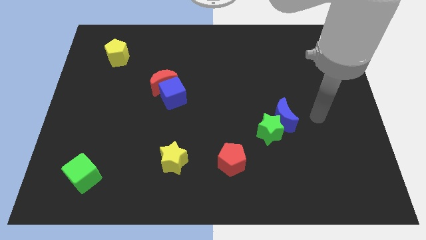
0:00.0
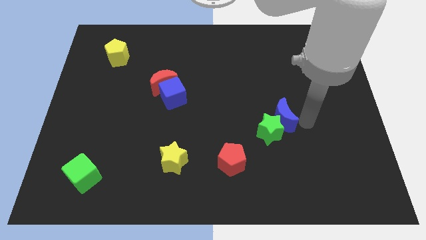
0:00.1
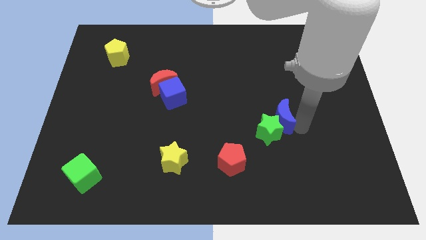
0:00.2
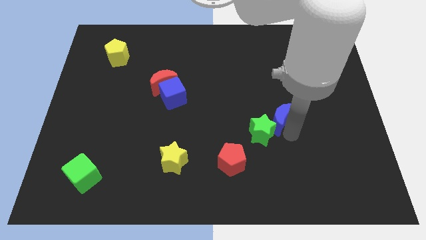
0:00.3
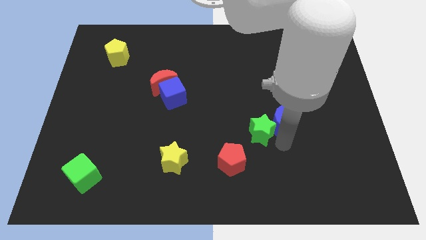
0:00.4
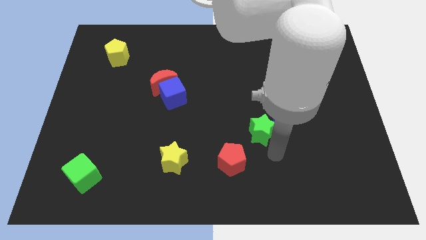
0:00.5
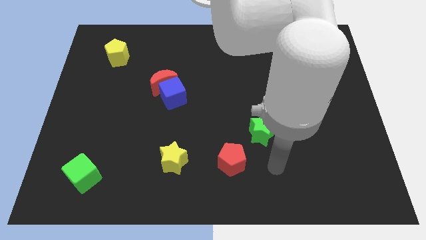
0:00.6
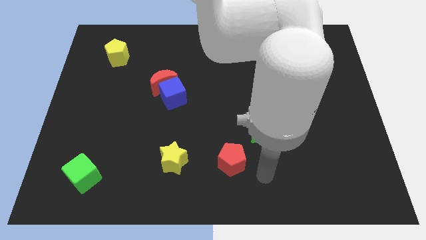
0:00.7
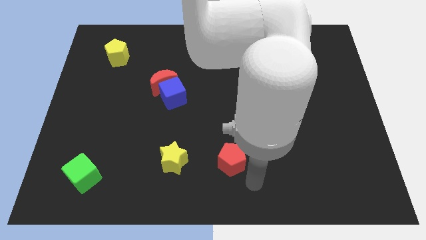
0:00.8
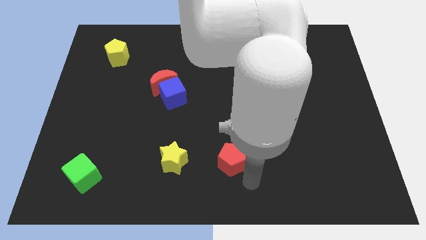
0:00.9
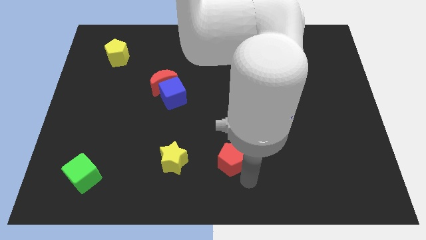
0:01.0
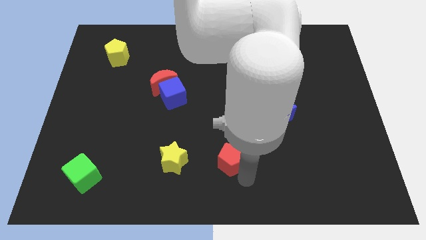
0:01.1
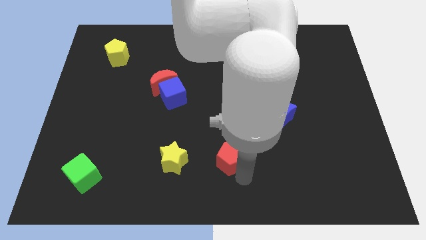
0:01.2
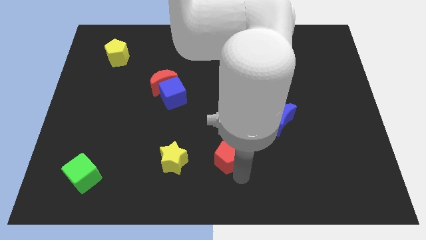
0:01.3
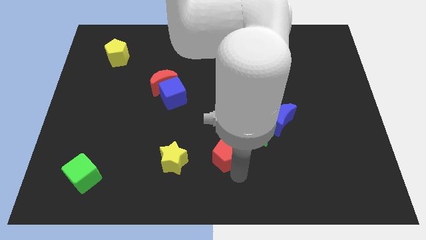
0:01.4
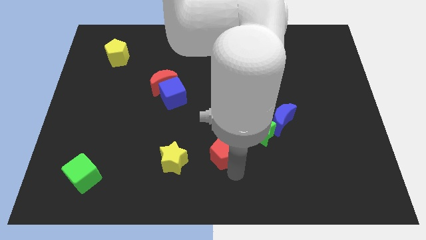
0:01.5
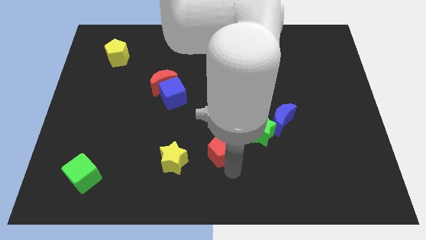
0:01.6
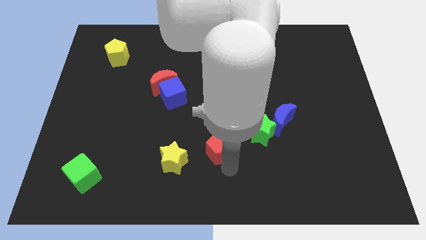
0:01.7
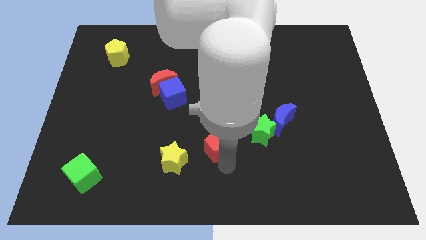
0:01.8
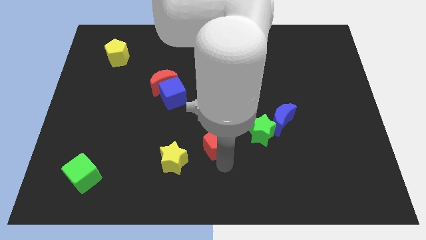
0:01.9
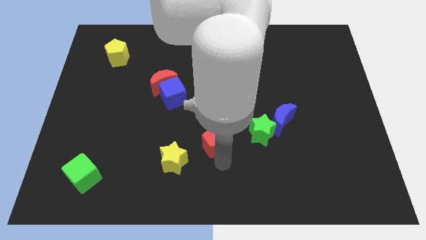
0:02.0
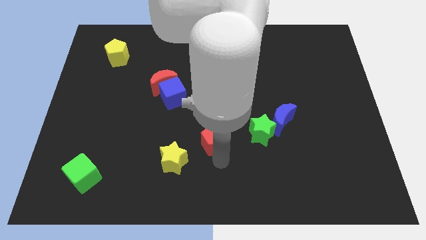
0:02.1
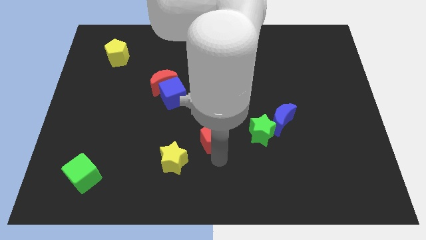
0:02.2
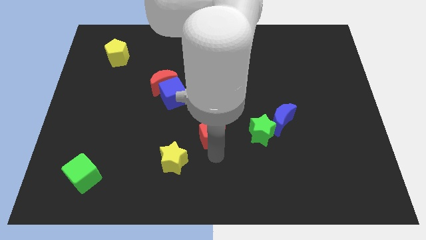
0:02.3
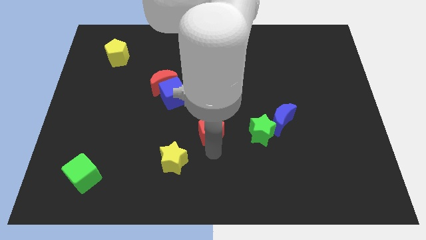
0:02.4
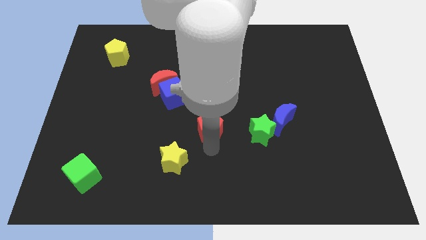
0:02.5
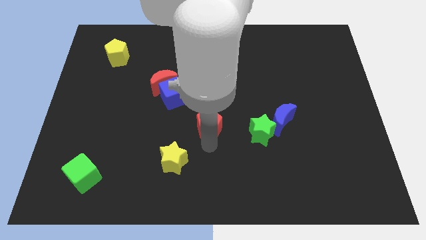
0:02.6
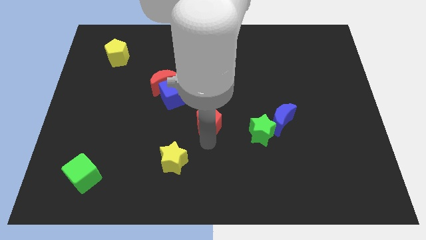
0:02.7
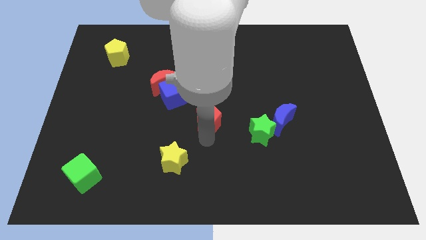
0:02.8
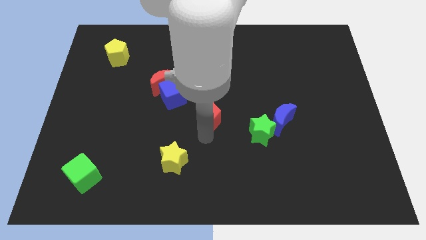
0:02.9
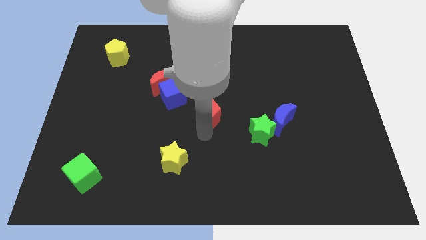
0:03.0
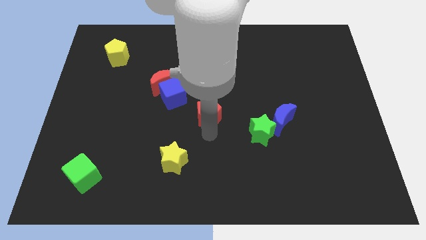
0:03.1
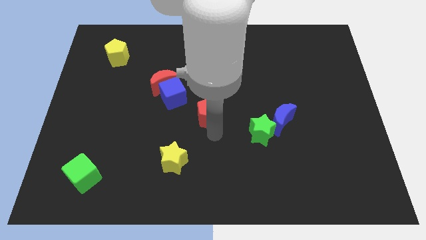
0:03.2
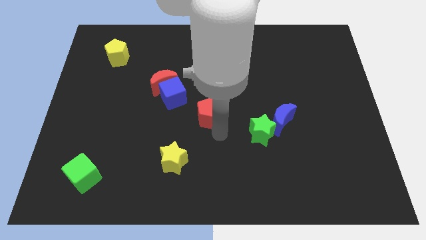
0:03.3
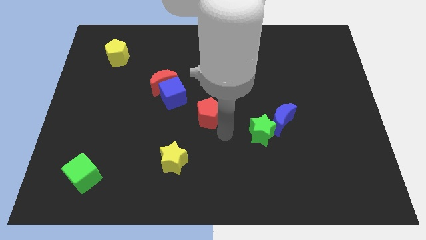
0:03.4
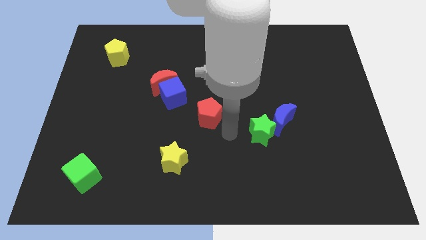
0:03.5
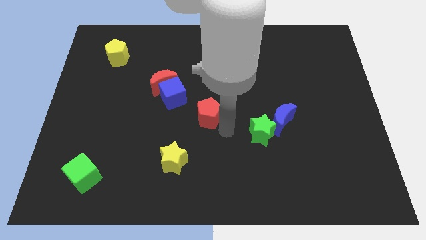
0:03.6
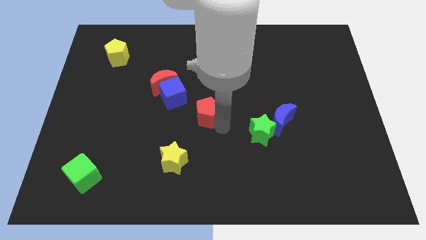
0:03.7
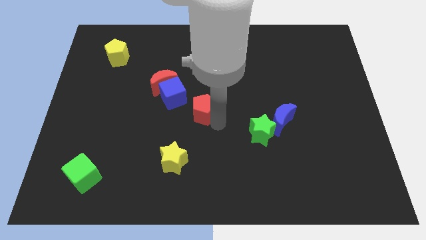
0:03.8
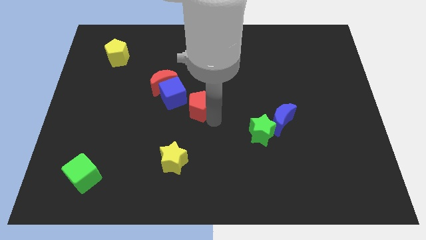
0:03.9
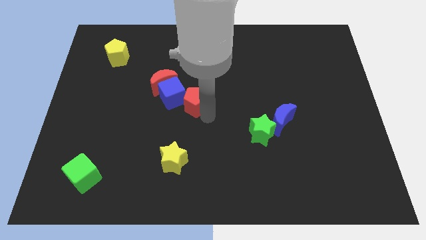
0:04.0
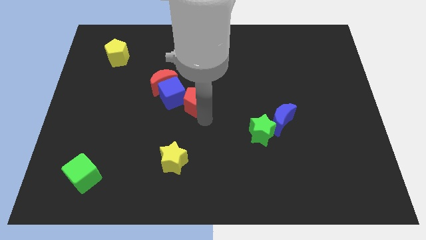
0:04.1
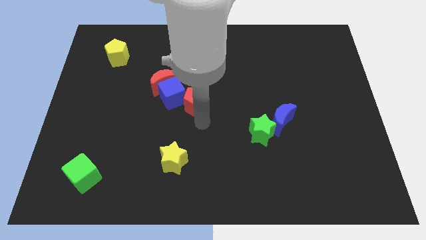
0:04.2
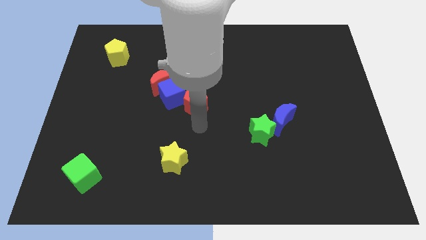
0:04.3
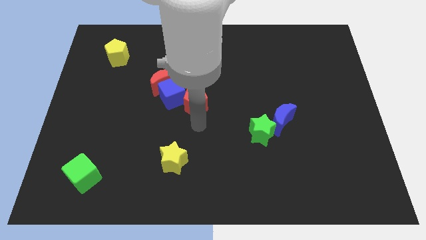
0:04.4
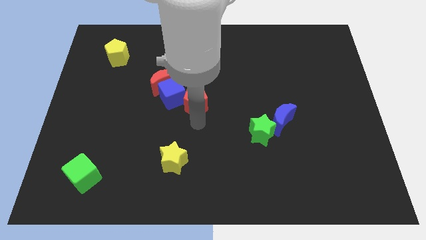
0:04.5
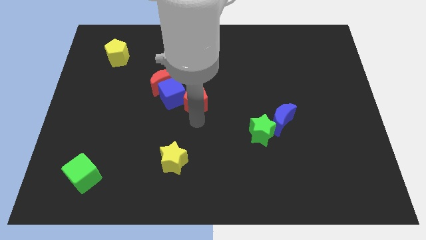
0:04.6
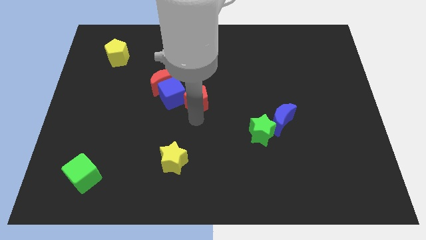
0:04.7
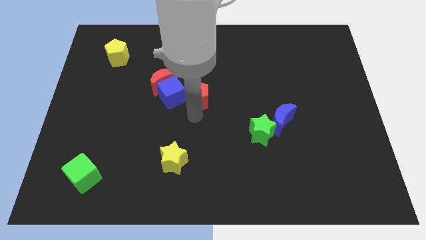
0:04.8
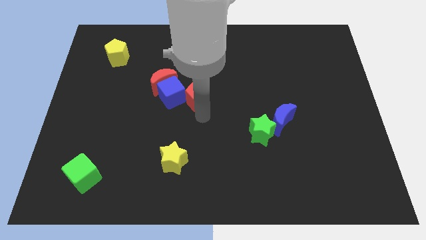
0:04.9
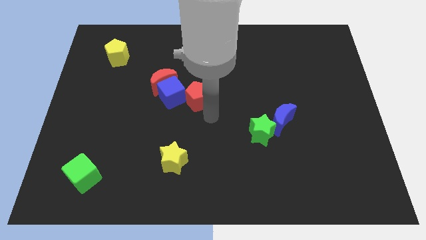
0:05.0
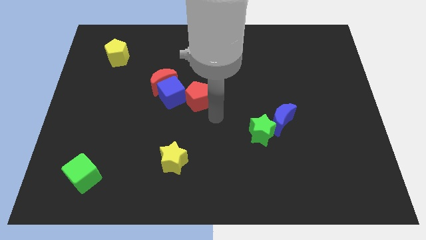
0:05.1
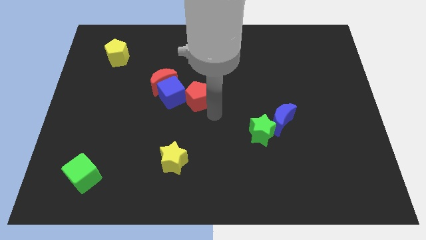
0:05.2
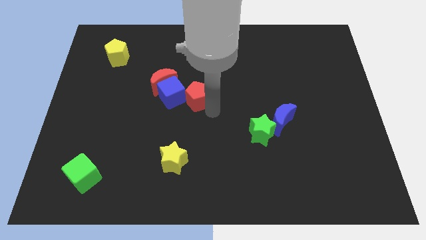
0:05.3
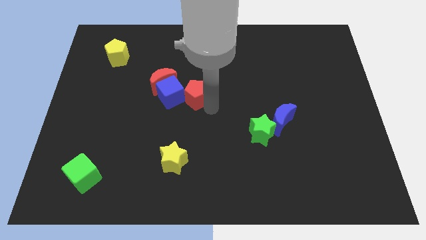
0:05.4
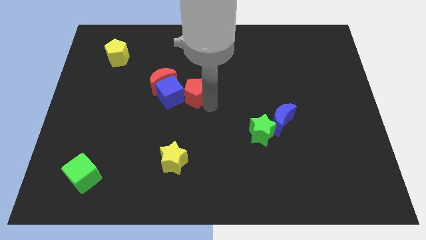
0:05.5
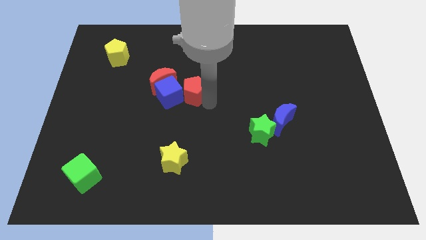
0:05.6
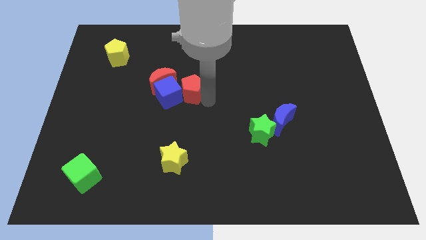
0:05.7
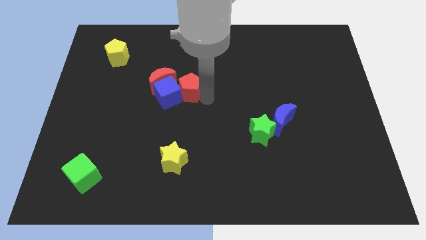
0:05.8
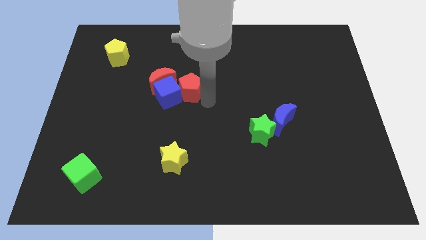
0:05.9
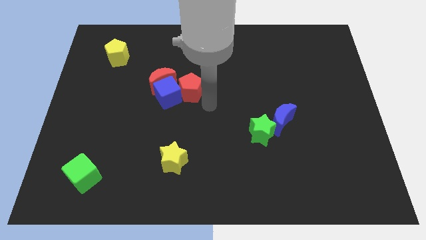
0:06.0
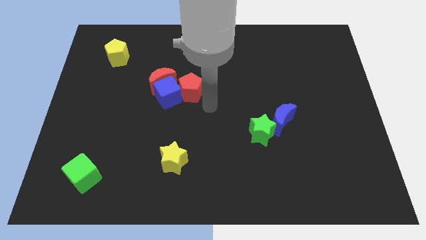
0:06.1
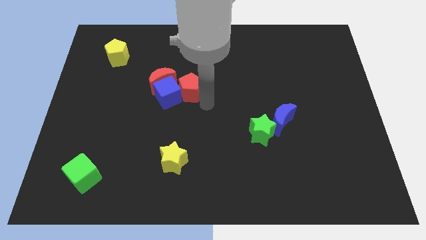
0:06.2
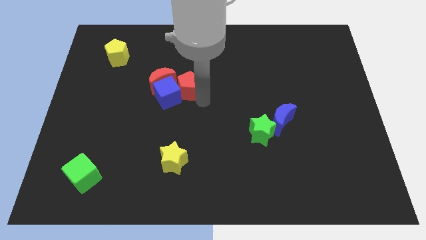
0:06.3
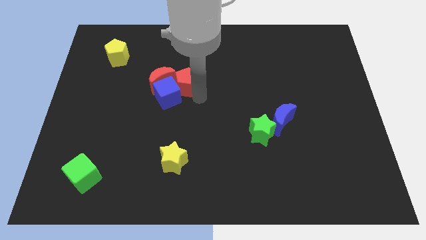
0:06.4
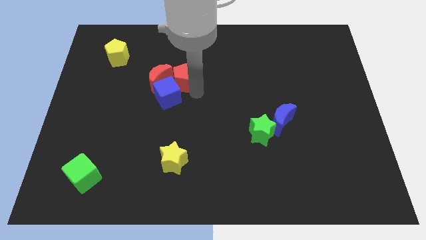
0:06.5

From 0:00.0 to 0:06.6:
put the red pentagon close to the red moon

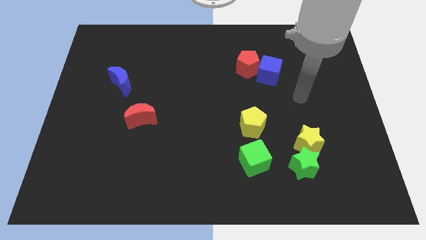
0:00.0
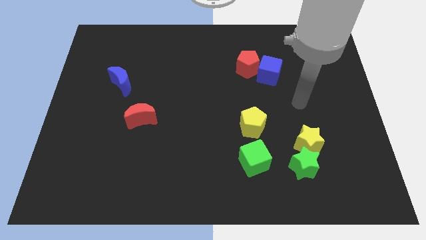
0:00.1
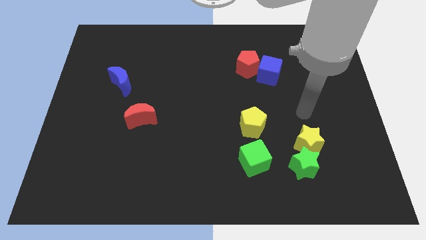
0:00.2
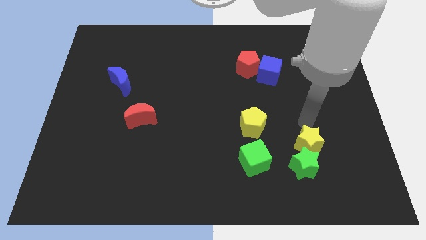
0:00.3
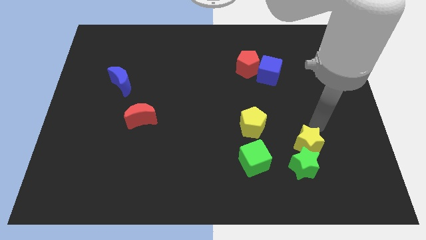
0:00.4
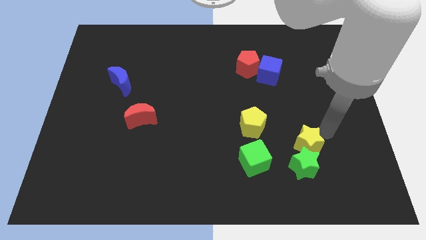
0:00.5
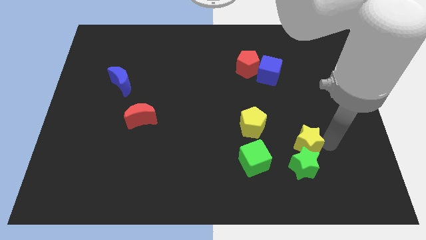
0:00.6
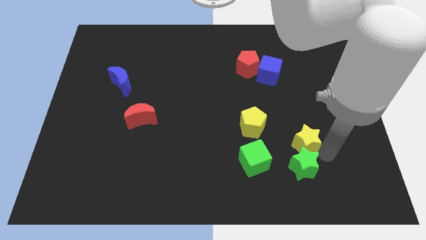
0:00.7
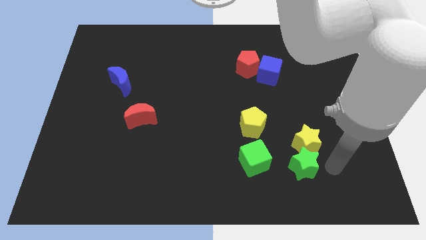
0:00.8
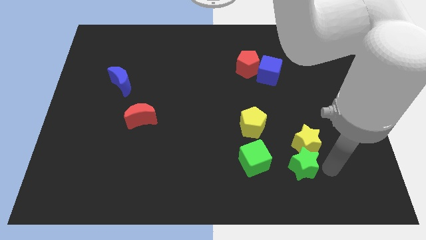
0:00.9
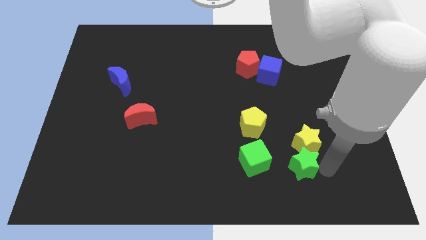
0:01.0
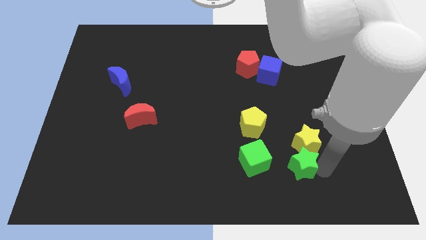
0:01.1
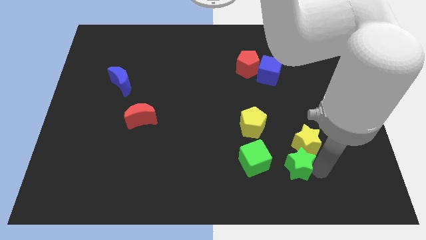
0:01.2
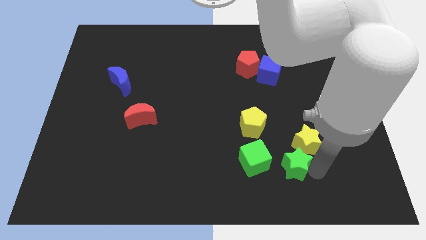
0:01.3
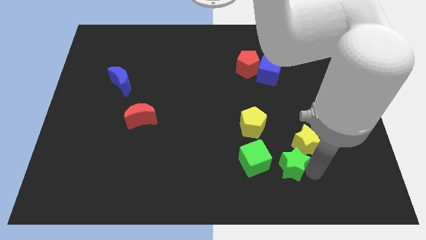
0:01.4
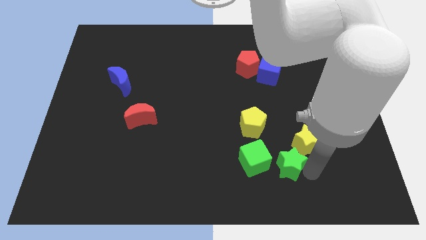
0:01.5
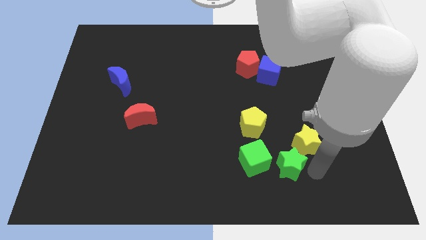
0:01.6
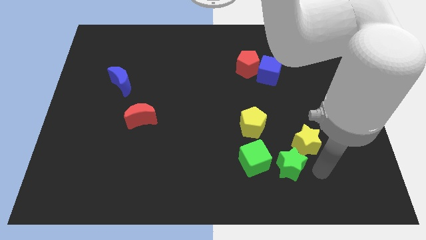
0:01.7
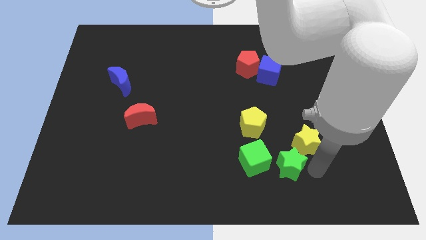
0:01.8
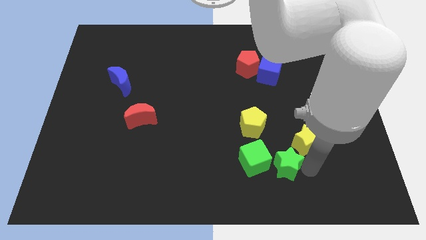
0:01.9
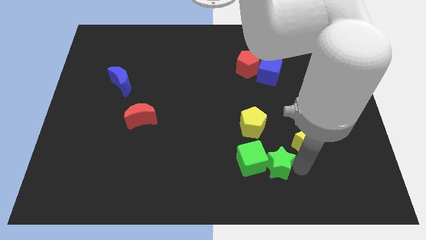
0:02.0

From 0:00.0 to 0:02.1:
move the green star to the green cube
